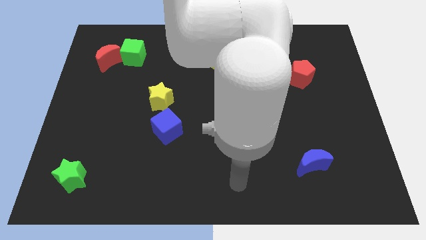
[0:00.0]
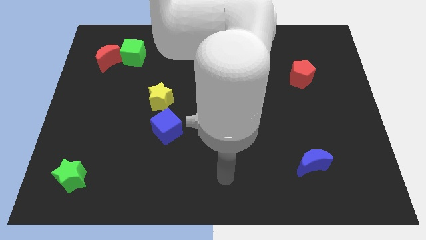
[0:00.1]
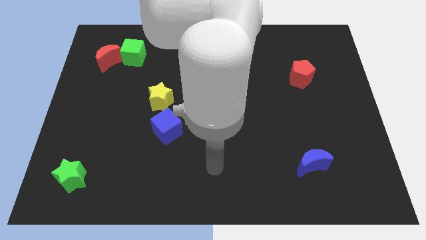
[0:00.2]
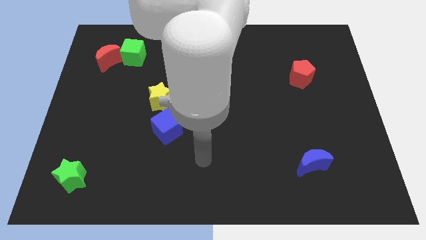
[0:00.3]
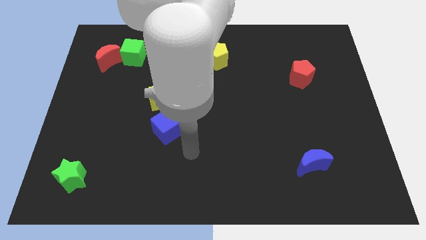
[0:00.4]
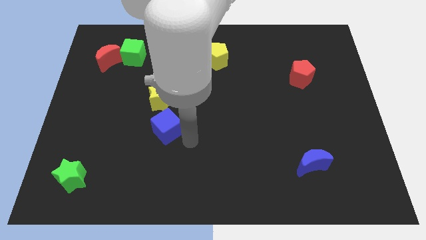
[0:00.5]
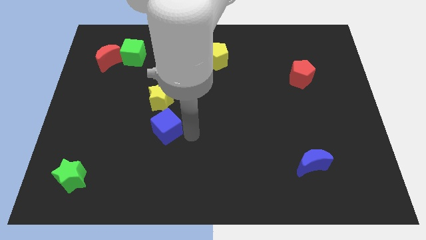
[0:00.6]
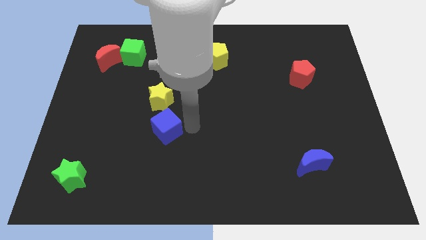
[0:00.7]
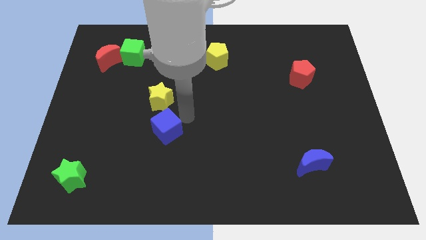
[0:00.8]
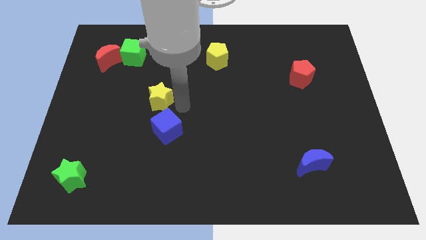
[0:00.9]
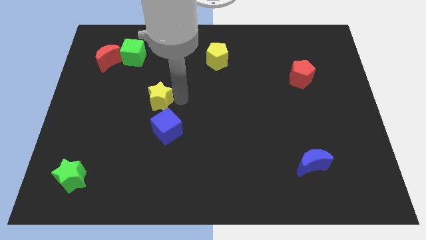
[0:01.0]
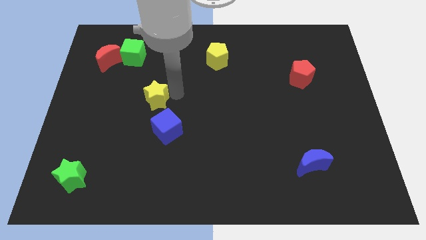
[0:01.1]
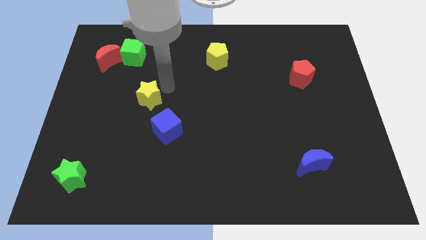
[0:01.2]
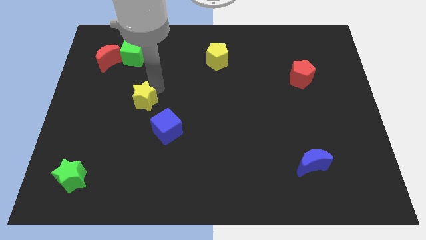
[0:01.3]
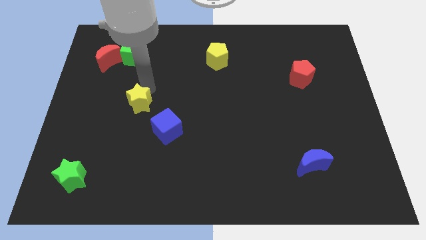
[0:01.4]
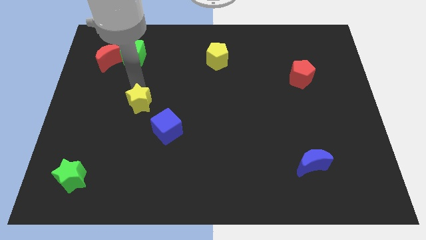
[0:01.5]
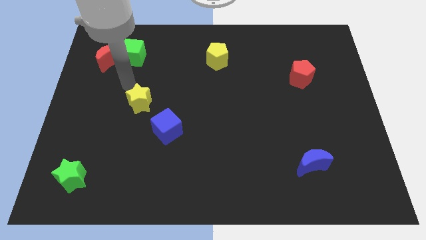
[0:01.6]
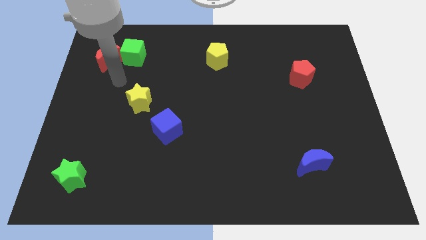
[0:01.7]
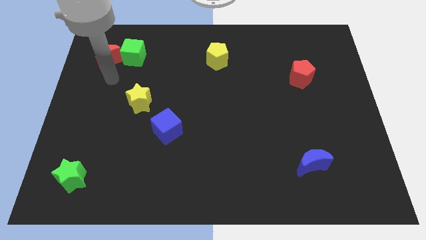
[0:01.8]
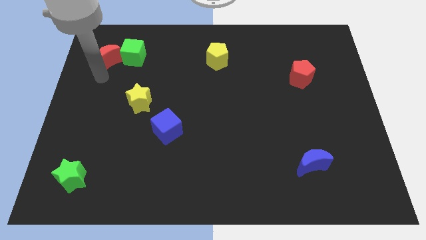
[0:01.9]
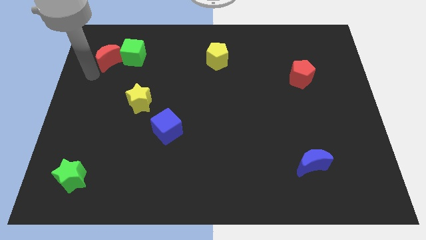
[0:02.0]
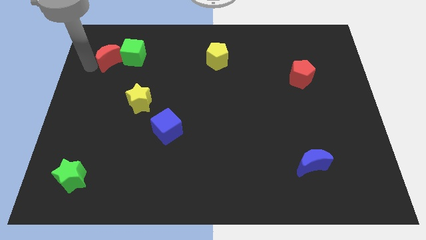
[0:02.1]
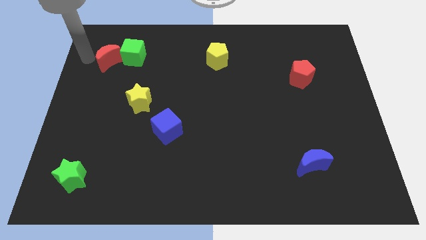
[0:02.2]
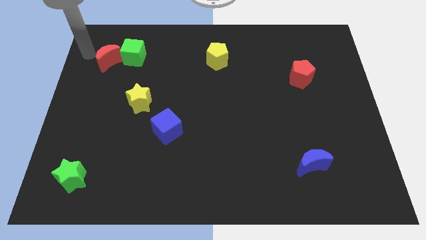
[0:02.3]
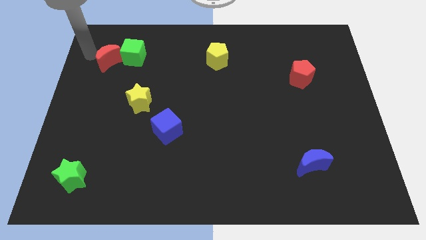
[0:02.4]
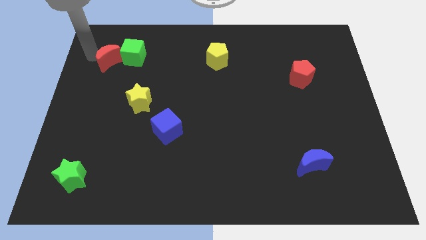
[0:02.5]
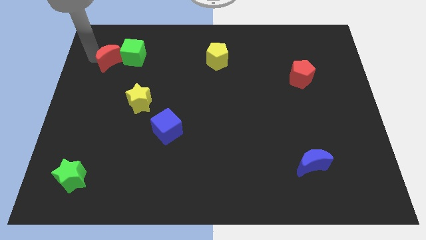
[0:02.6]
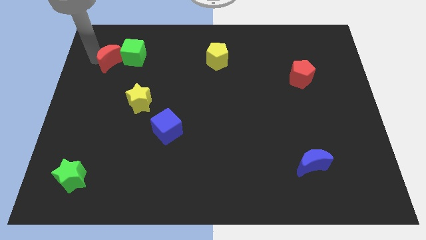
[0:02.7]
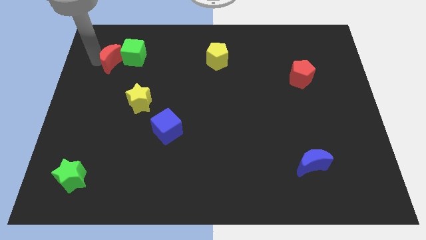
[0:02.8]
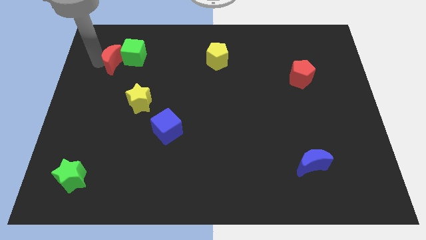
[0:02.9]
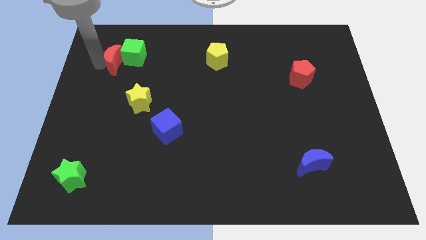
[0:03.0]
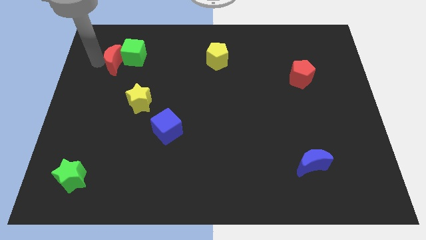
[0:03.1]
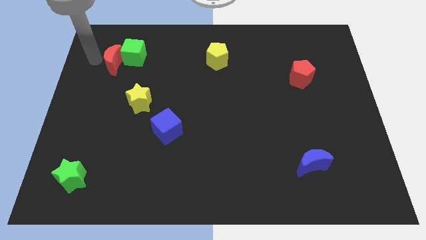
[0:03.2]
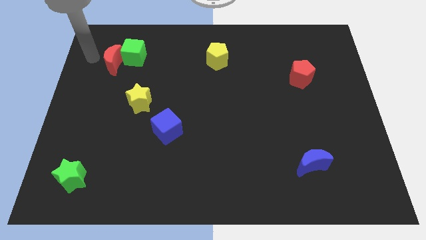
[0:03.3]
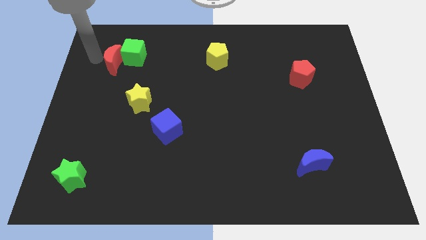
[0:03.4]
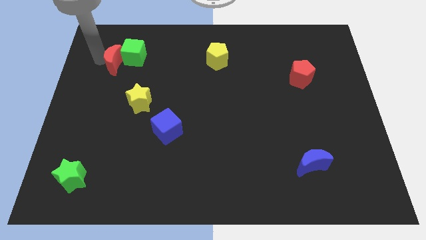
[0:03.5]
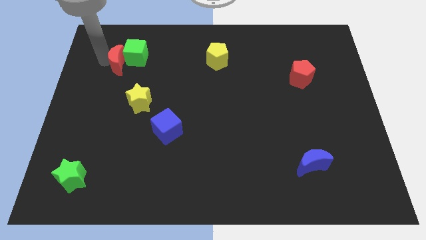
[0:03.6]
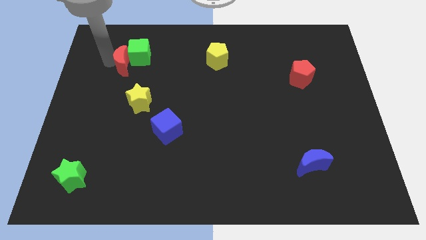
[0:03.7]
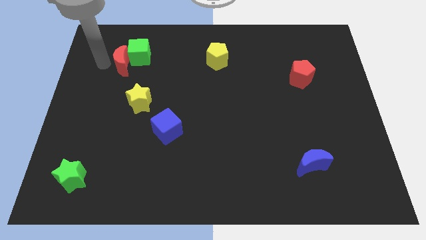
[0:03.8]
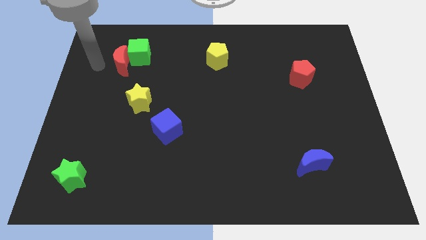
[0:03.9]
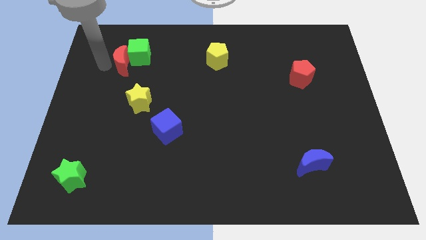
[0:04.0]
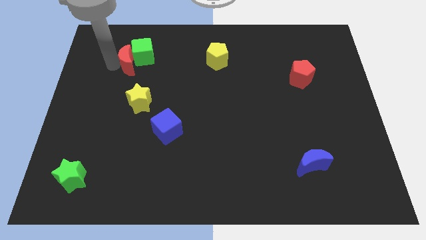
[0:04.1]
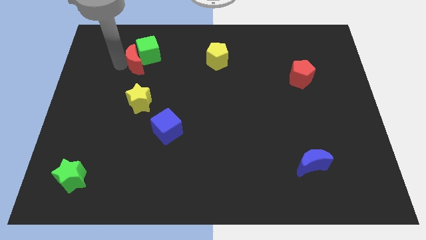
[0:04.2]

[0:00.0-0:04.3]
slide the red moon a little to the right

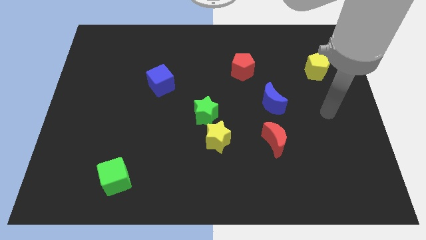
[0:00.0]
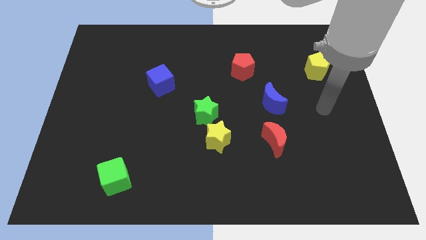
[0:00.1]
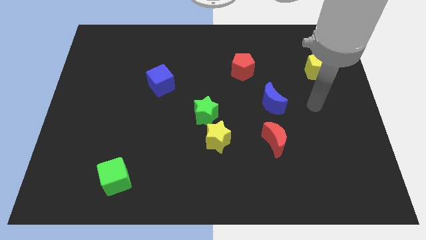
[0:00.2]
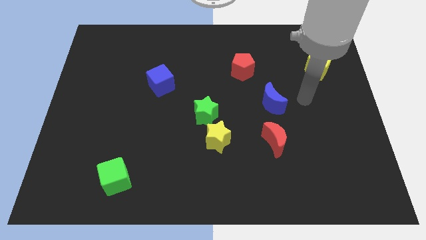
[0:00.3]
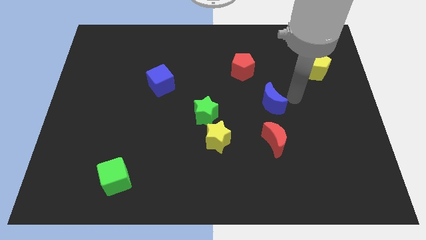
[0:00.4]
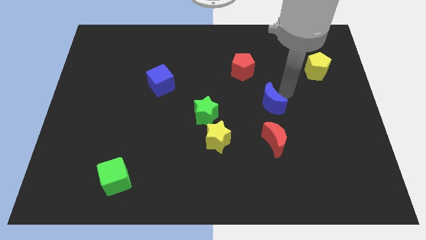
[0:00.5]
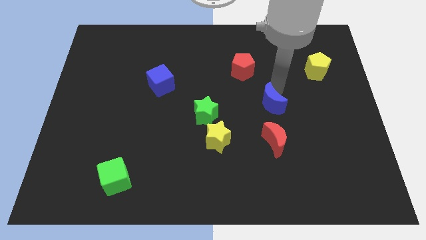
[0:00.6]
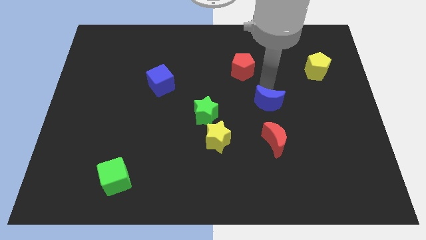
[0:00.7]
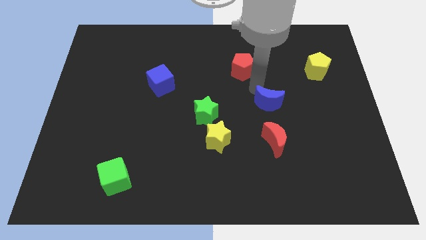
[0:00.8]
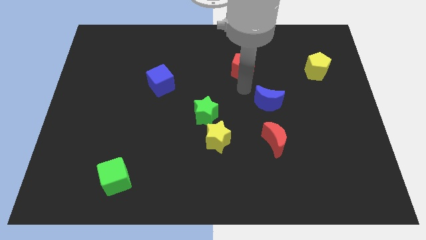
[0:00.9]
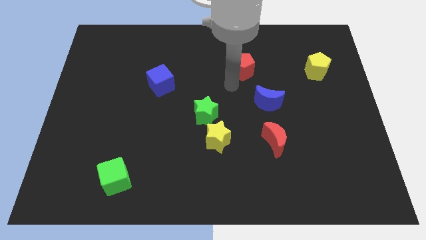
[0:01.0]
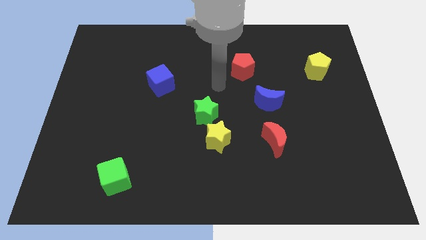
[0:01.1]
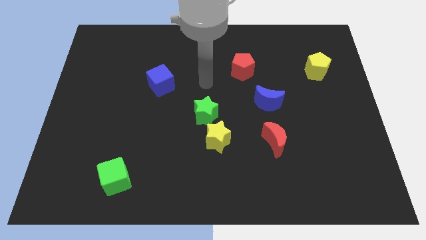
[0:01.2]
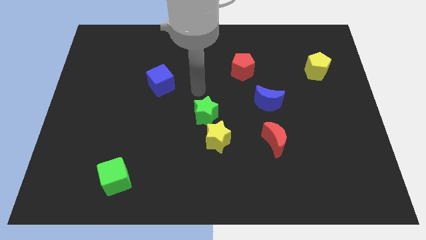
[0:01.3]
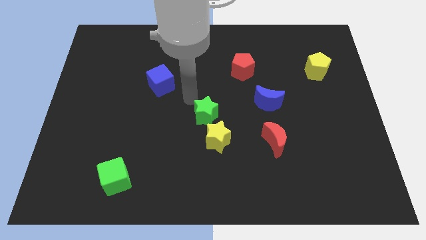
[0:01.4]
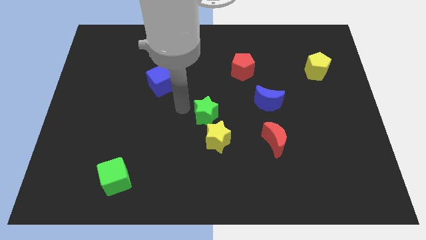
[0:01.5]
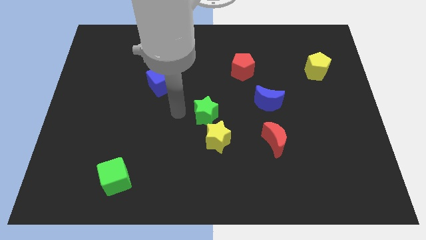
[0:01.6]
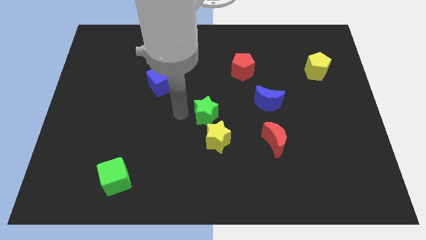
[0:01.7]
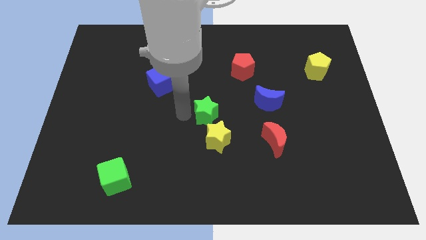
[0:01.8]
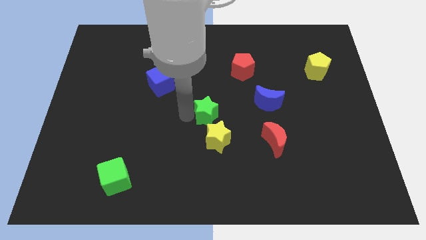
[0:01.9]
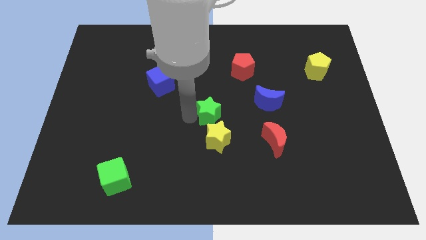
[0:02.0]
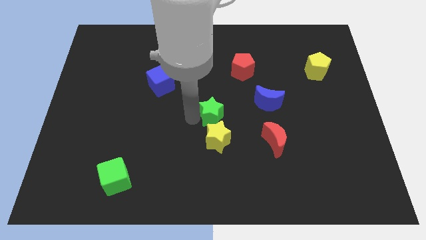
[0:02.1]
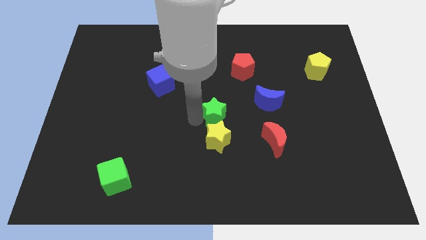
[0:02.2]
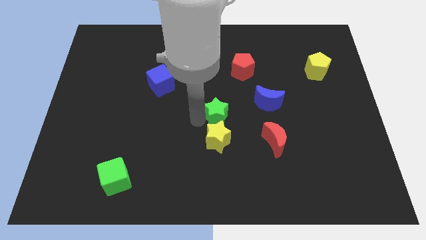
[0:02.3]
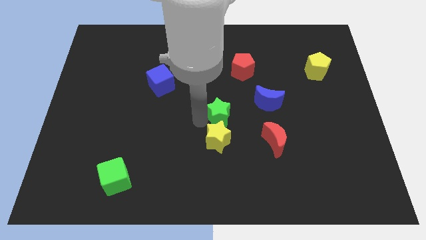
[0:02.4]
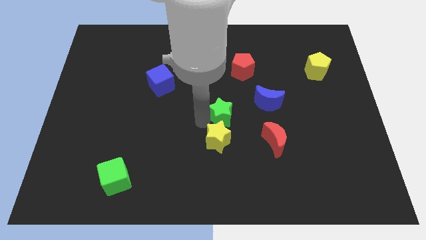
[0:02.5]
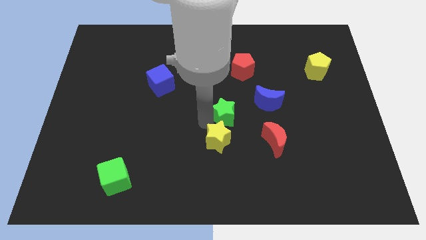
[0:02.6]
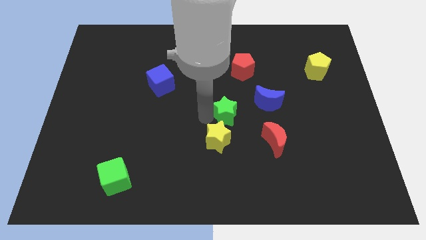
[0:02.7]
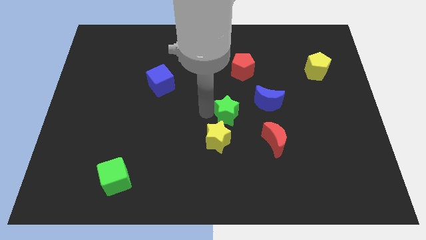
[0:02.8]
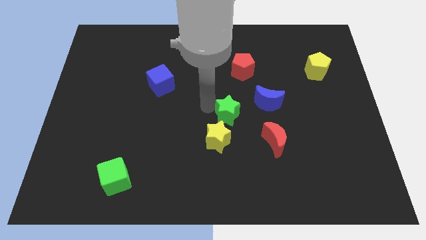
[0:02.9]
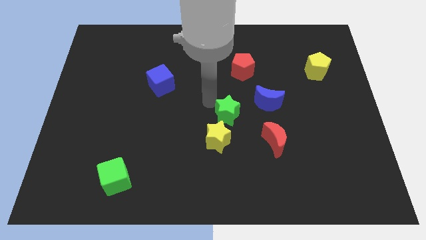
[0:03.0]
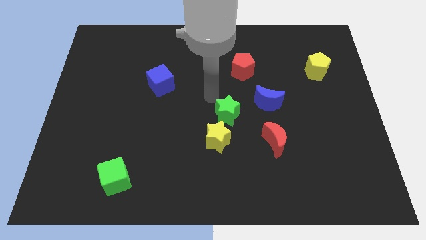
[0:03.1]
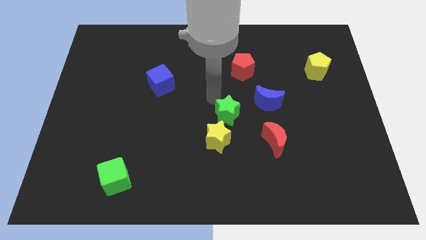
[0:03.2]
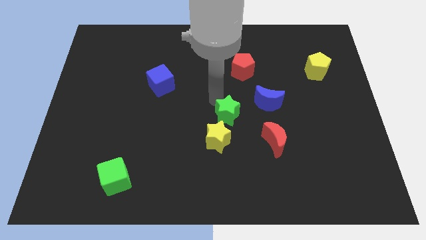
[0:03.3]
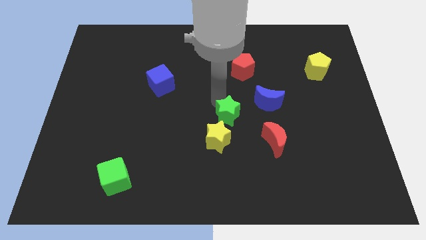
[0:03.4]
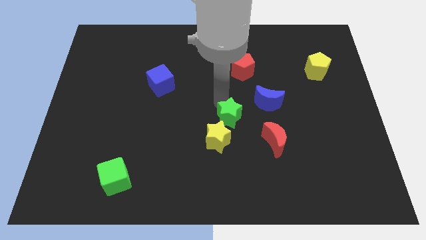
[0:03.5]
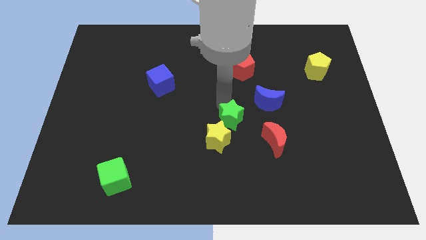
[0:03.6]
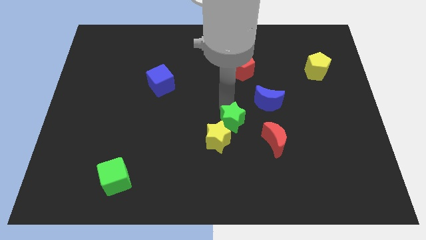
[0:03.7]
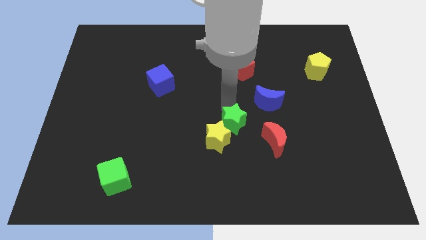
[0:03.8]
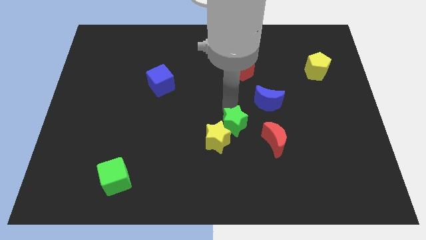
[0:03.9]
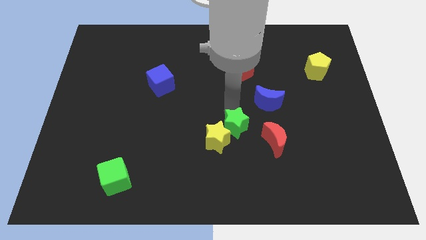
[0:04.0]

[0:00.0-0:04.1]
push the green star slightly down and right diagonally
